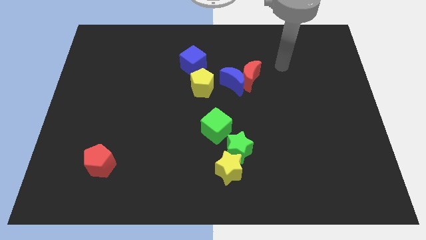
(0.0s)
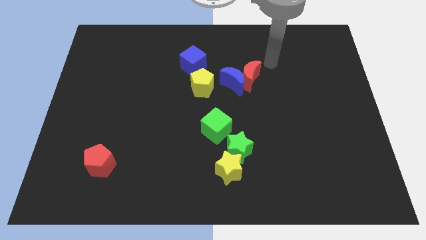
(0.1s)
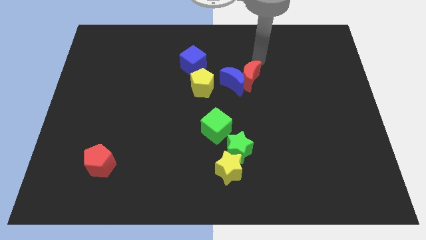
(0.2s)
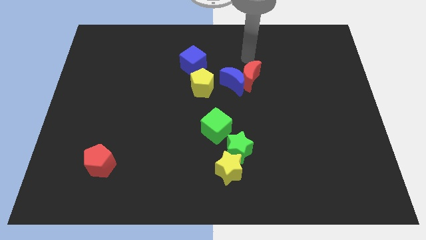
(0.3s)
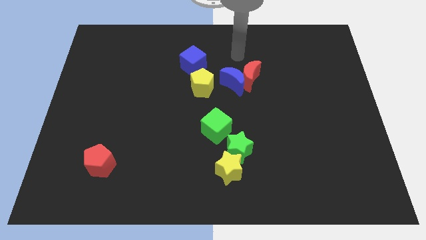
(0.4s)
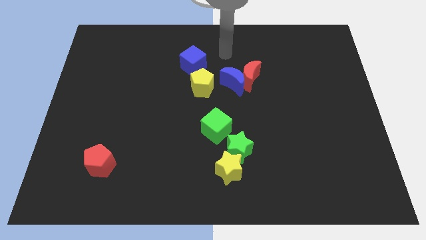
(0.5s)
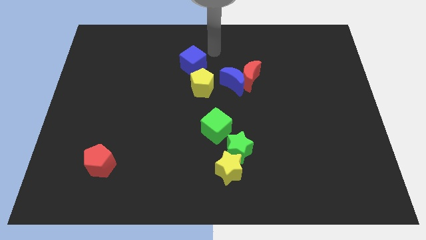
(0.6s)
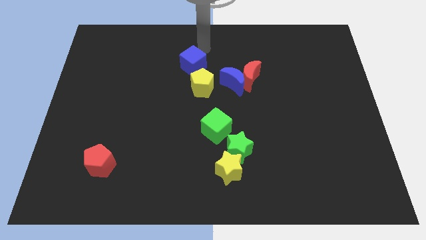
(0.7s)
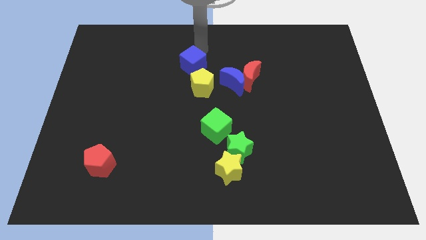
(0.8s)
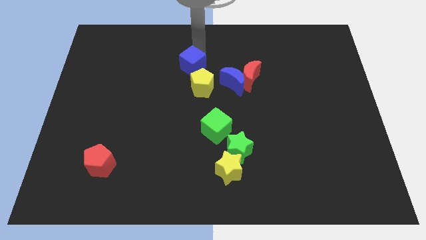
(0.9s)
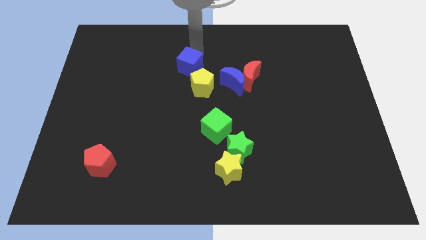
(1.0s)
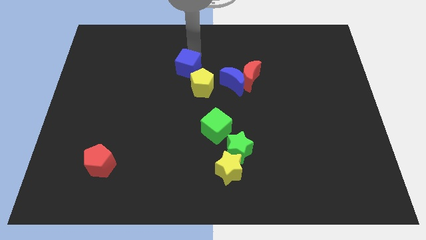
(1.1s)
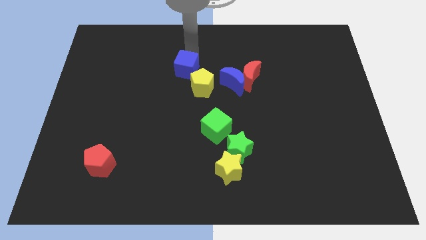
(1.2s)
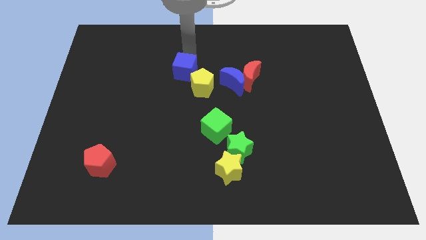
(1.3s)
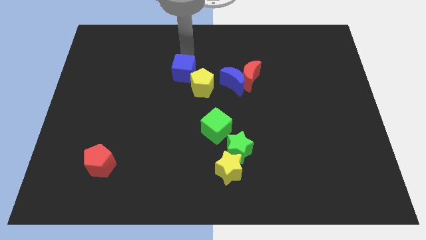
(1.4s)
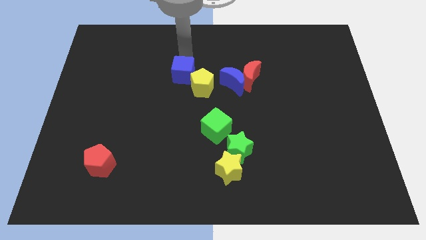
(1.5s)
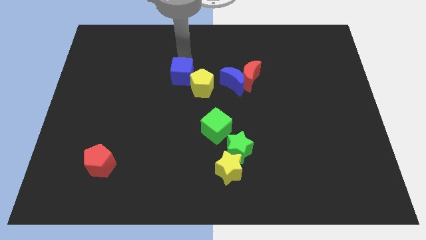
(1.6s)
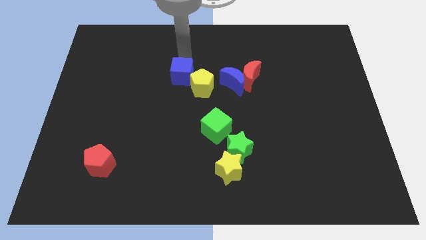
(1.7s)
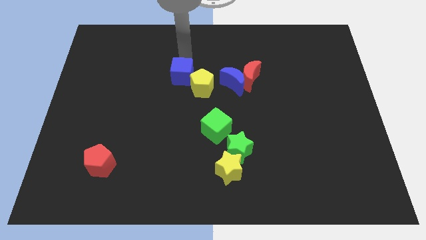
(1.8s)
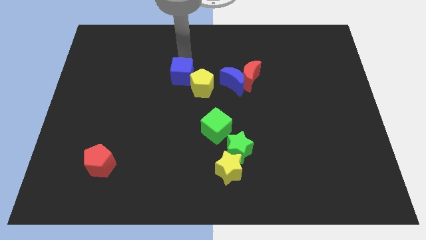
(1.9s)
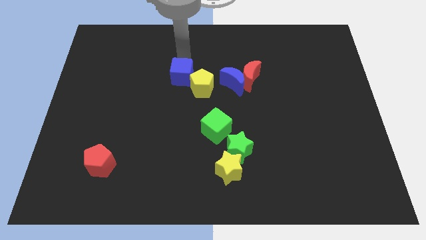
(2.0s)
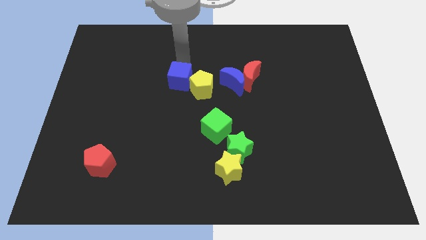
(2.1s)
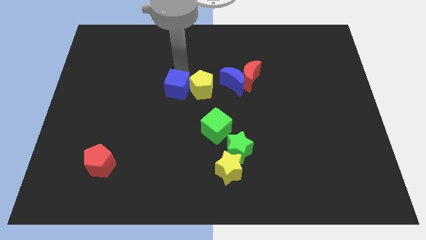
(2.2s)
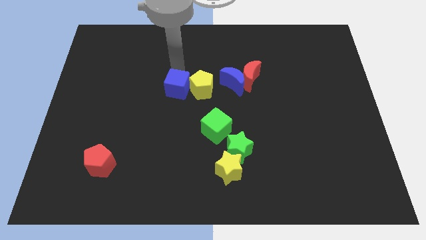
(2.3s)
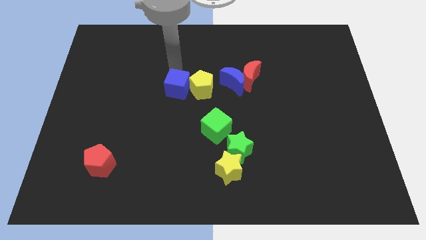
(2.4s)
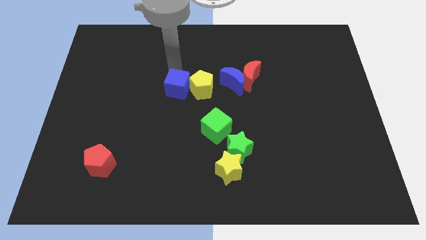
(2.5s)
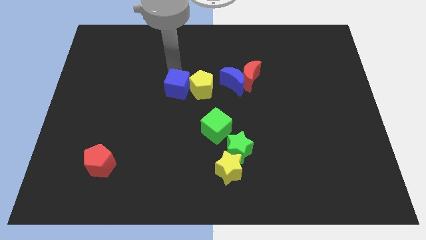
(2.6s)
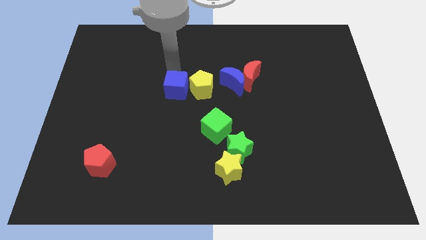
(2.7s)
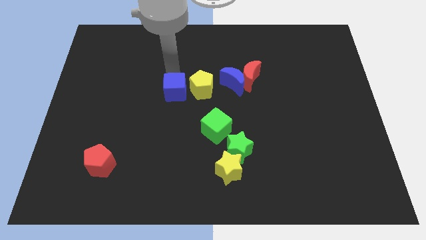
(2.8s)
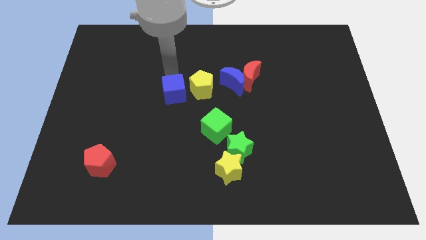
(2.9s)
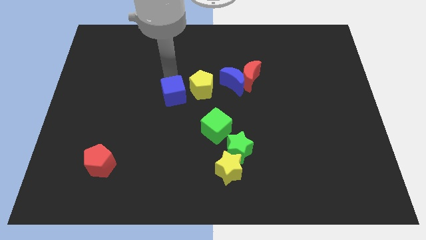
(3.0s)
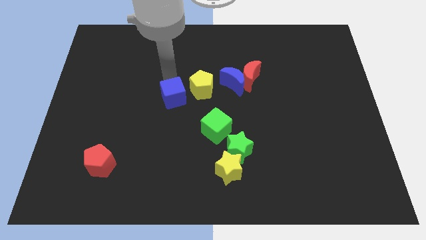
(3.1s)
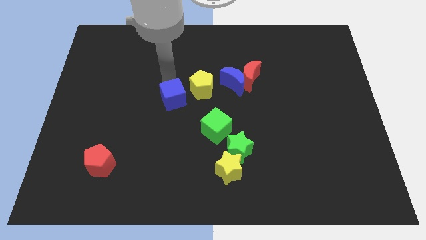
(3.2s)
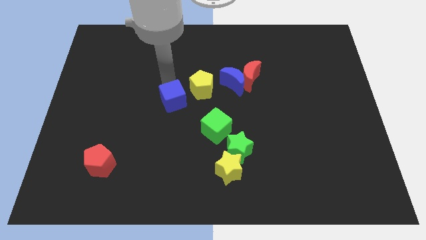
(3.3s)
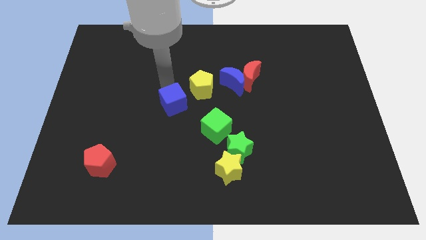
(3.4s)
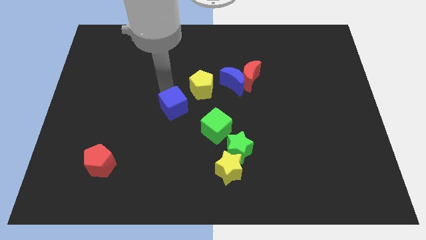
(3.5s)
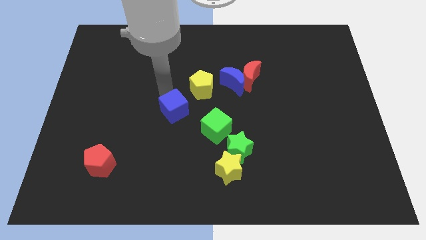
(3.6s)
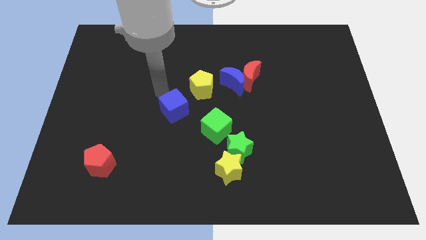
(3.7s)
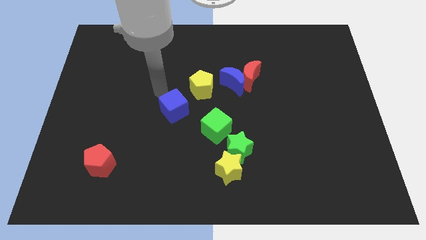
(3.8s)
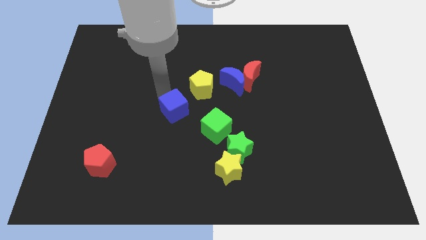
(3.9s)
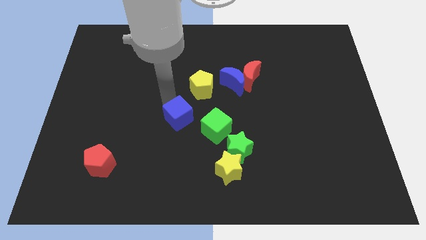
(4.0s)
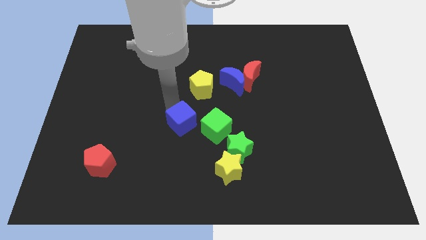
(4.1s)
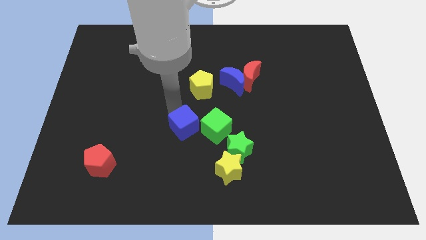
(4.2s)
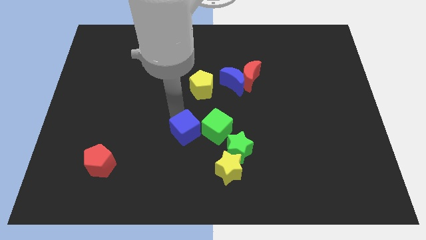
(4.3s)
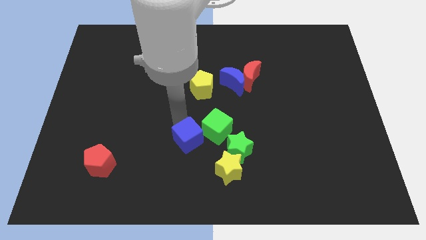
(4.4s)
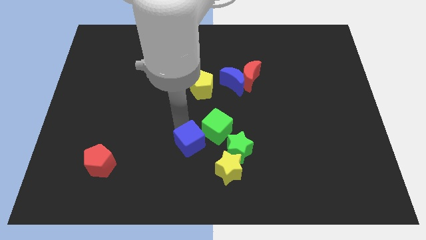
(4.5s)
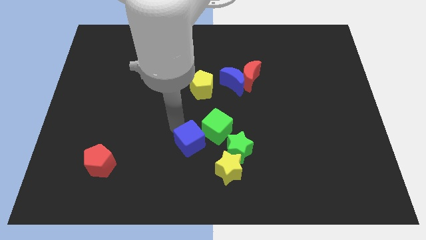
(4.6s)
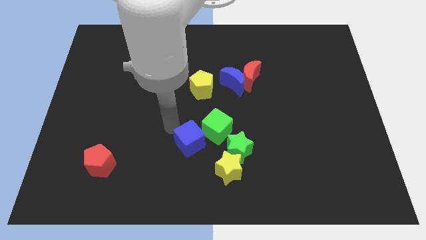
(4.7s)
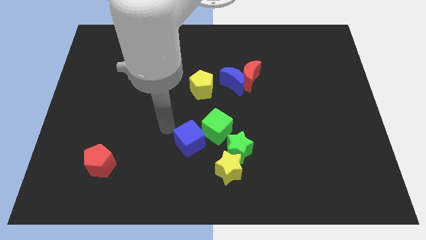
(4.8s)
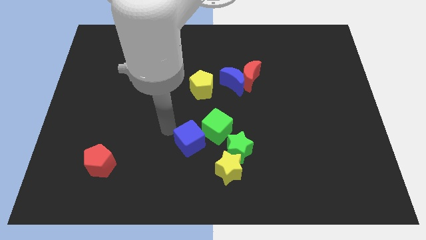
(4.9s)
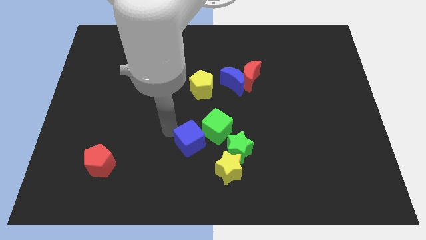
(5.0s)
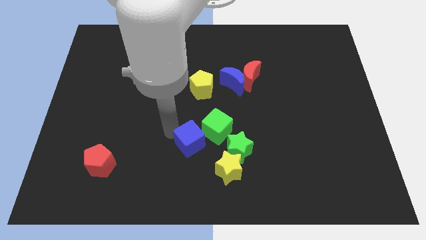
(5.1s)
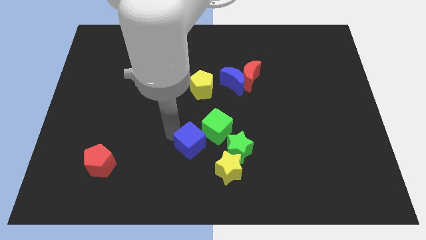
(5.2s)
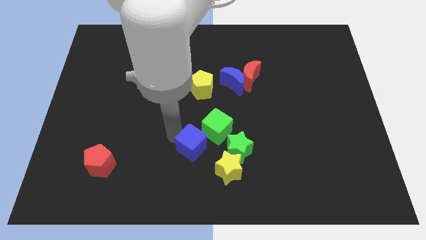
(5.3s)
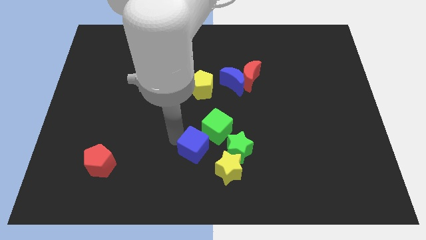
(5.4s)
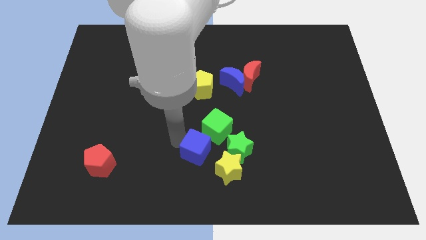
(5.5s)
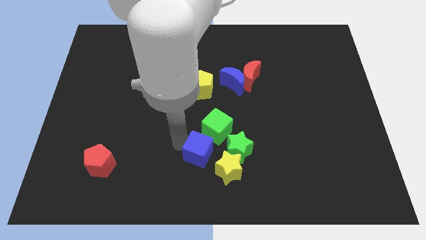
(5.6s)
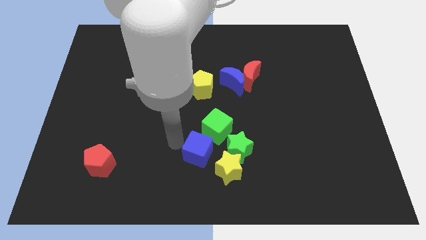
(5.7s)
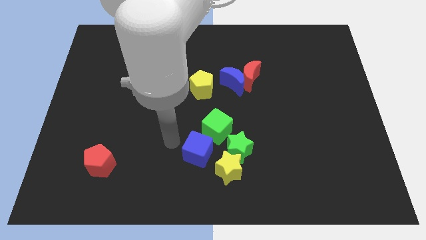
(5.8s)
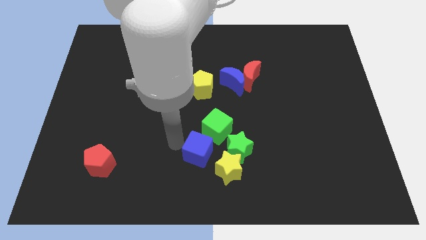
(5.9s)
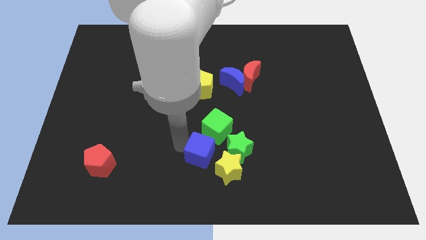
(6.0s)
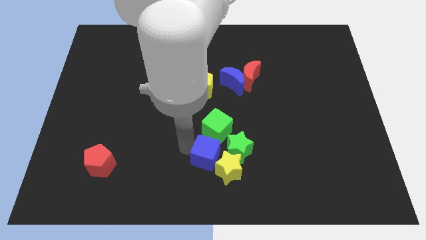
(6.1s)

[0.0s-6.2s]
push the blue cube to the yellow star

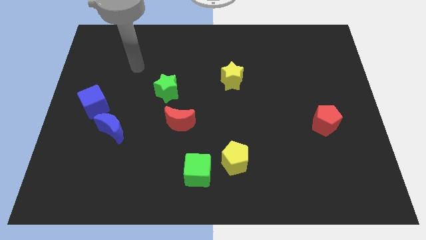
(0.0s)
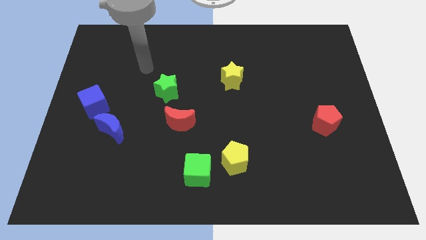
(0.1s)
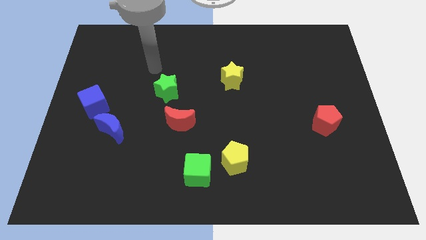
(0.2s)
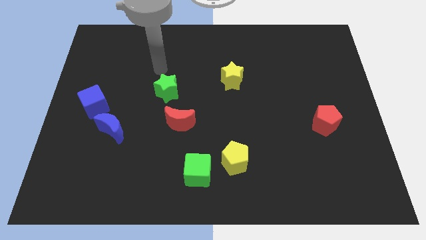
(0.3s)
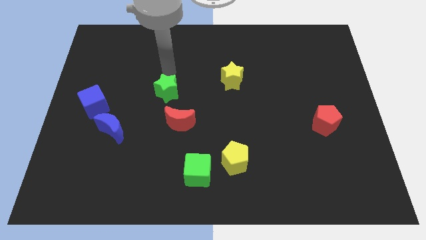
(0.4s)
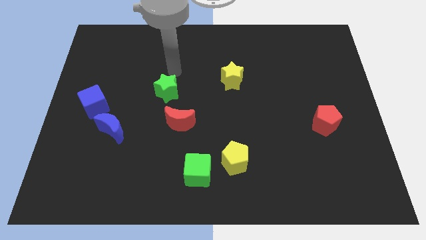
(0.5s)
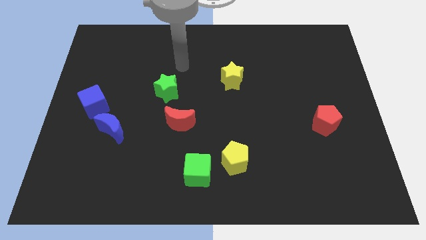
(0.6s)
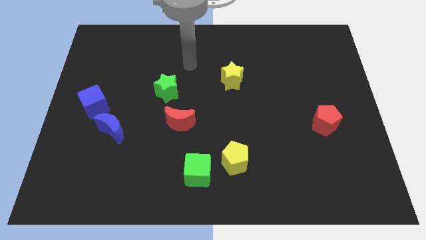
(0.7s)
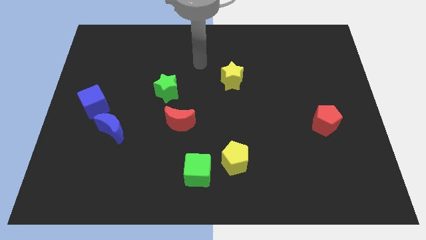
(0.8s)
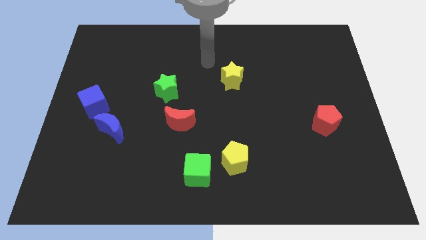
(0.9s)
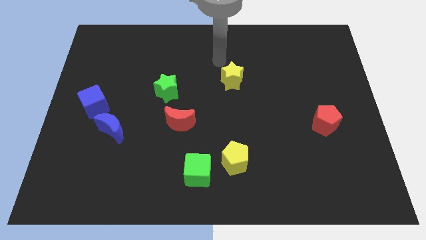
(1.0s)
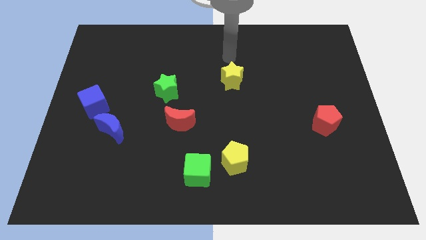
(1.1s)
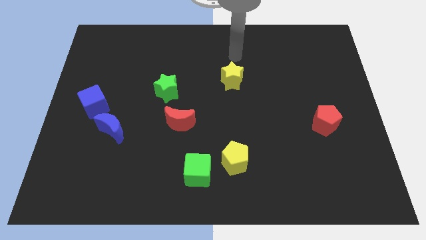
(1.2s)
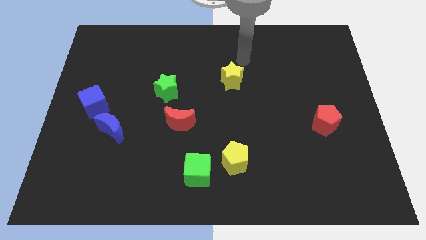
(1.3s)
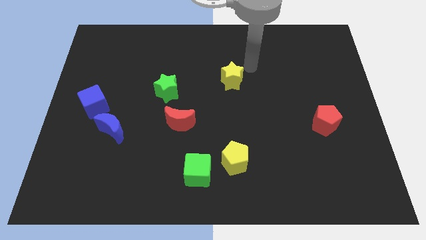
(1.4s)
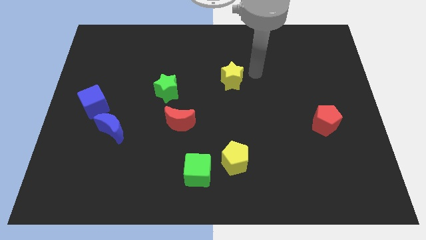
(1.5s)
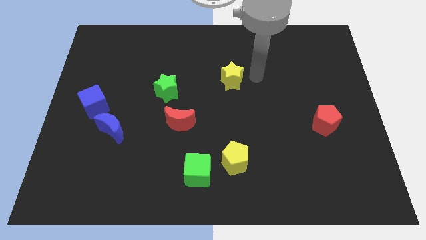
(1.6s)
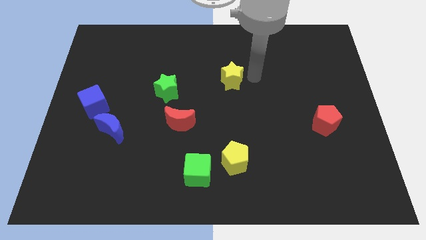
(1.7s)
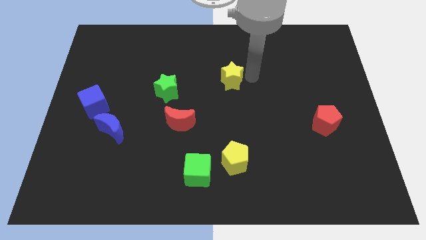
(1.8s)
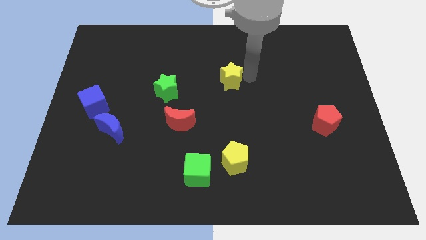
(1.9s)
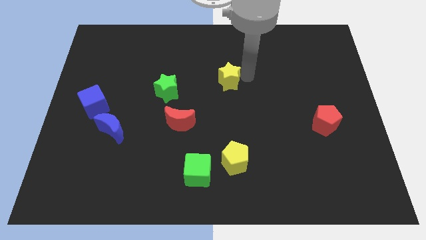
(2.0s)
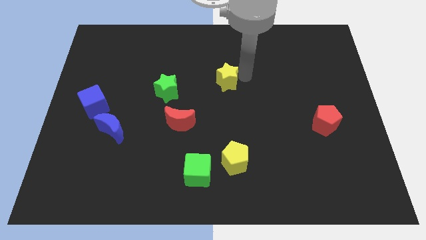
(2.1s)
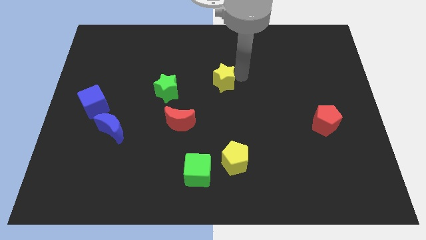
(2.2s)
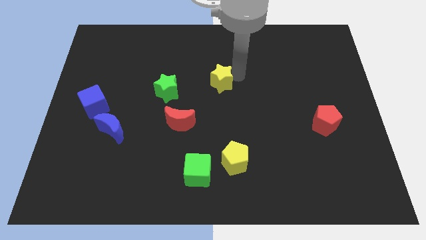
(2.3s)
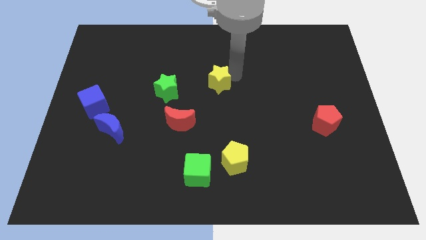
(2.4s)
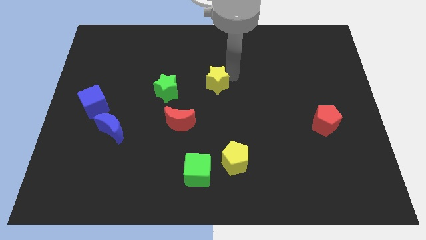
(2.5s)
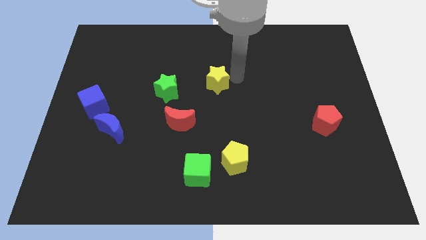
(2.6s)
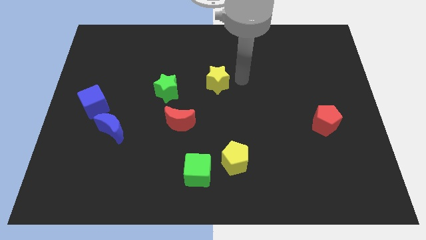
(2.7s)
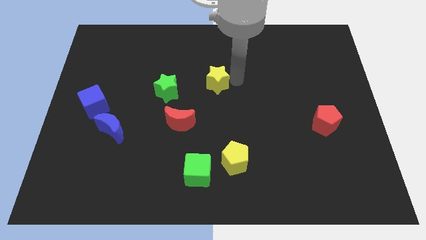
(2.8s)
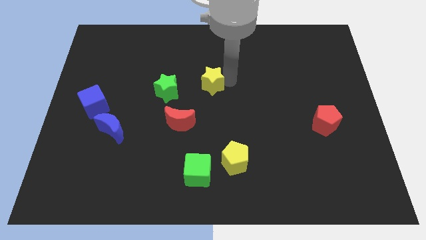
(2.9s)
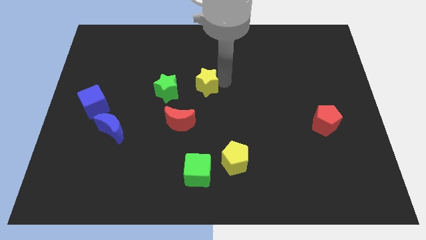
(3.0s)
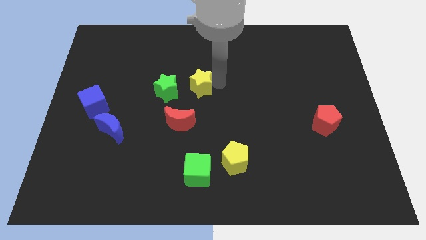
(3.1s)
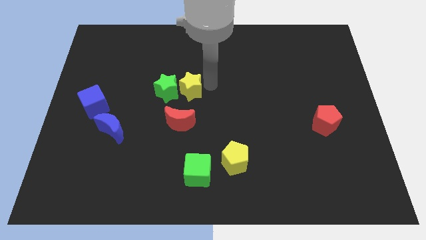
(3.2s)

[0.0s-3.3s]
slide the yellow star next to the green star
